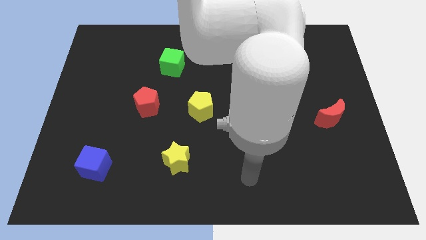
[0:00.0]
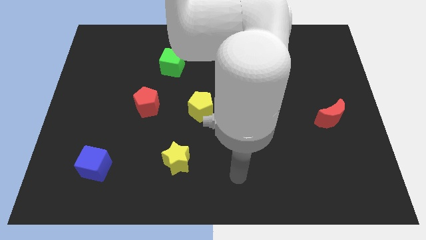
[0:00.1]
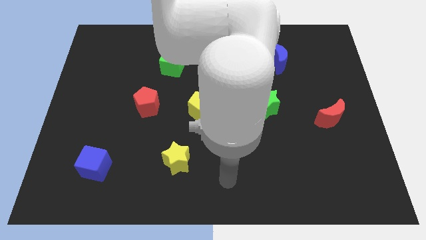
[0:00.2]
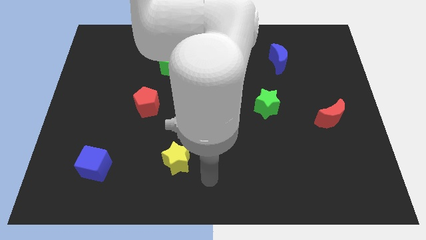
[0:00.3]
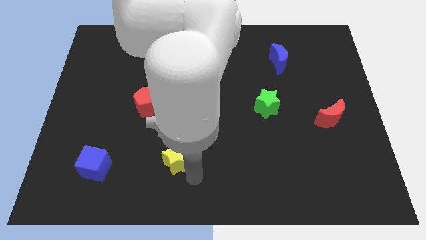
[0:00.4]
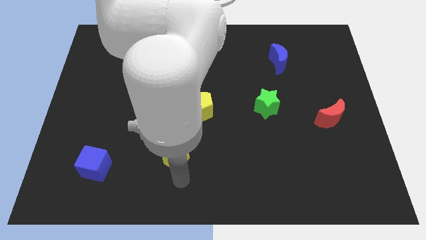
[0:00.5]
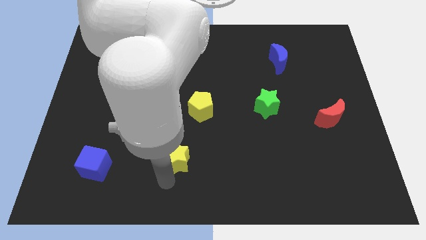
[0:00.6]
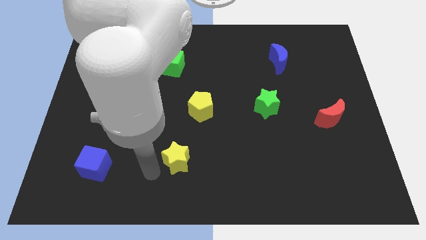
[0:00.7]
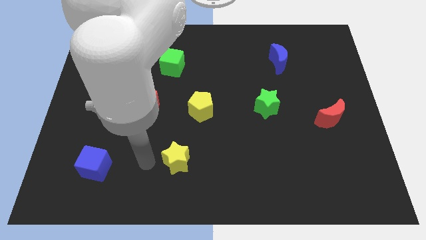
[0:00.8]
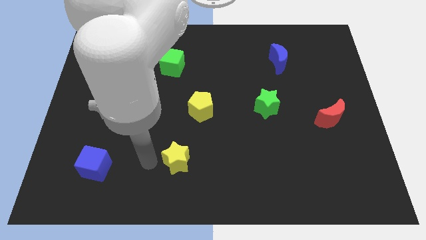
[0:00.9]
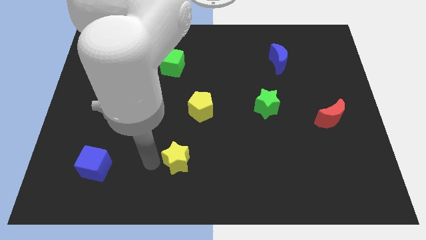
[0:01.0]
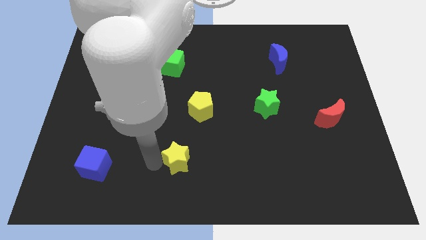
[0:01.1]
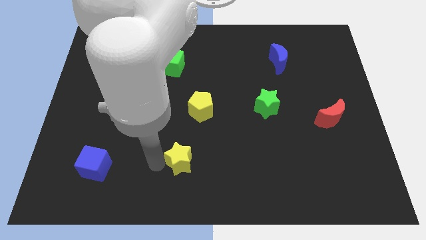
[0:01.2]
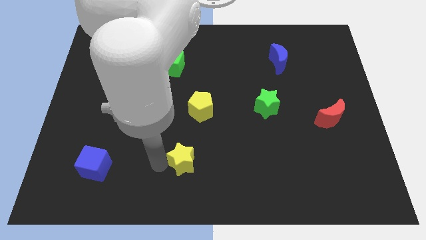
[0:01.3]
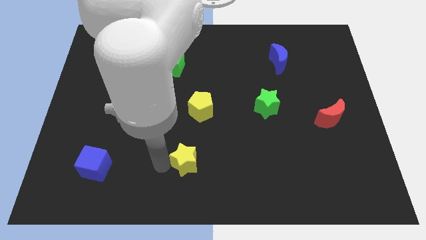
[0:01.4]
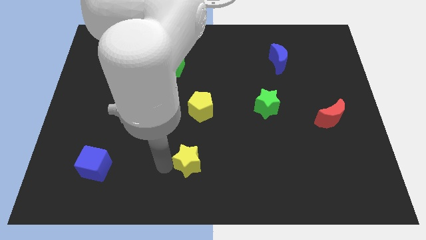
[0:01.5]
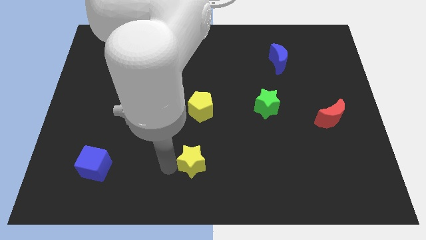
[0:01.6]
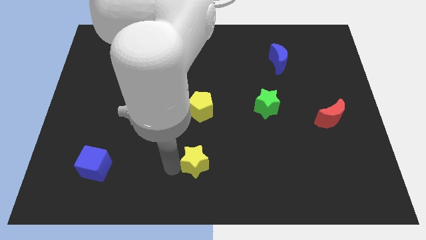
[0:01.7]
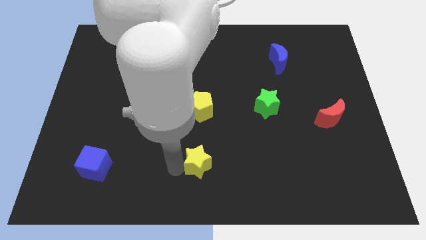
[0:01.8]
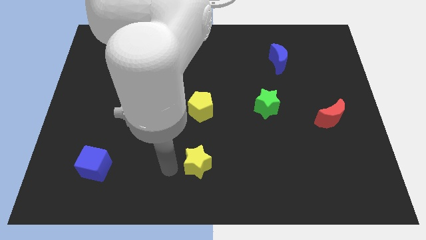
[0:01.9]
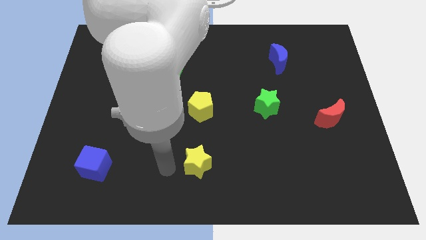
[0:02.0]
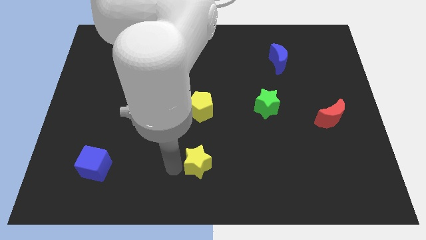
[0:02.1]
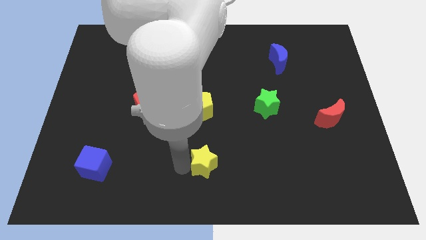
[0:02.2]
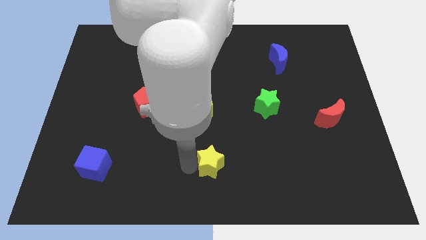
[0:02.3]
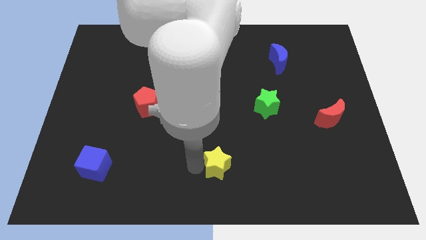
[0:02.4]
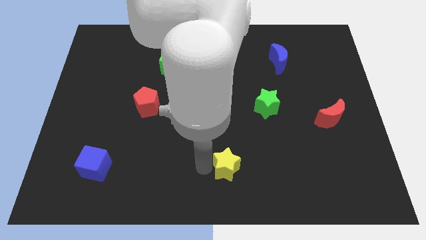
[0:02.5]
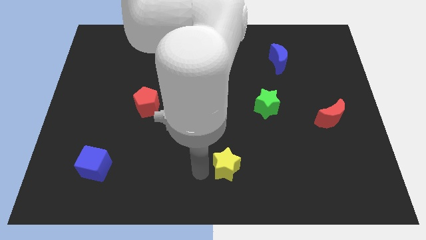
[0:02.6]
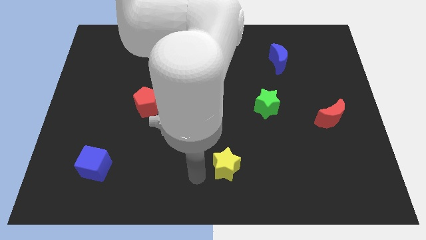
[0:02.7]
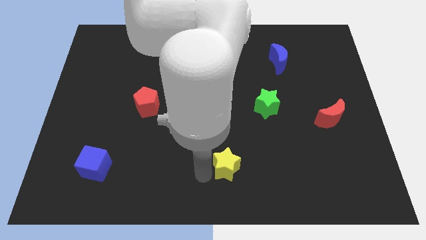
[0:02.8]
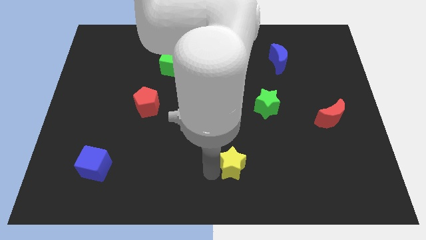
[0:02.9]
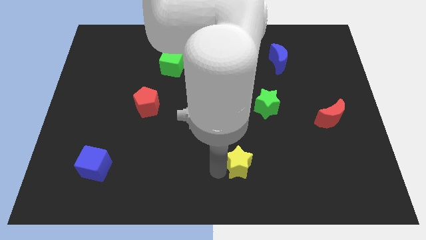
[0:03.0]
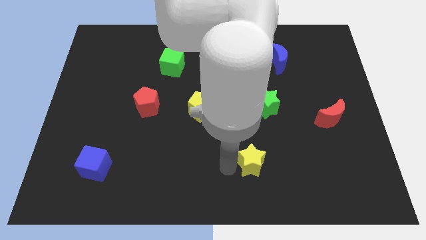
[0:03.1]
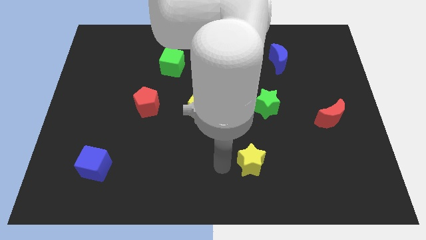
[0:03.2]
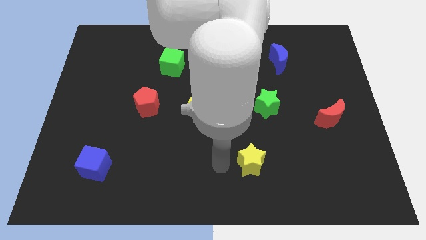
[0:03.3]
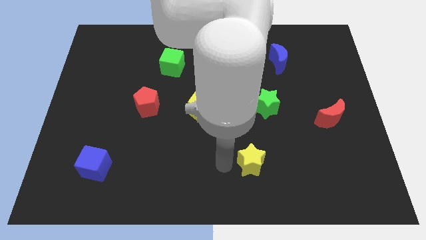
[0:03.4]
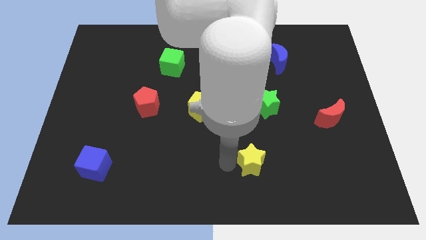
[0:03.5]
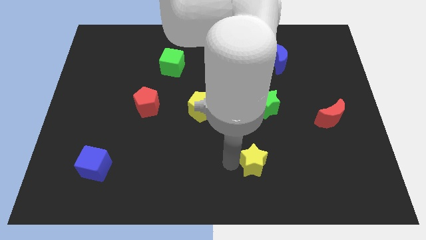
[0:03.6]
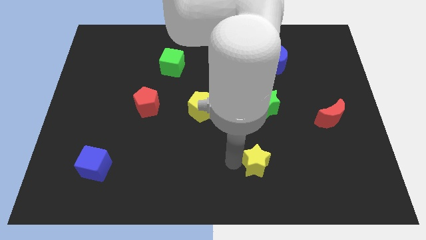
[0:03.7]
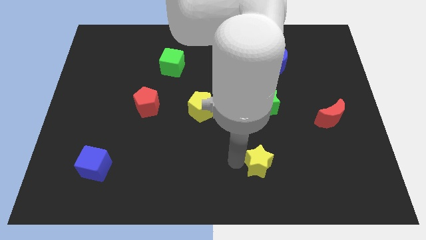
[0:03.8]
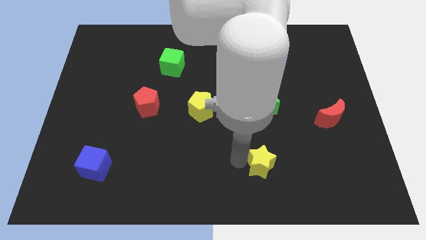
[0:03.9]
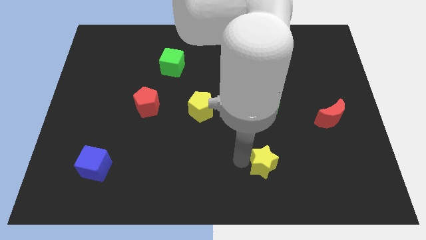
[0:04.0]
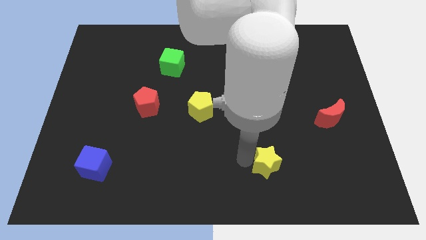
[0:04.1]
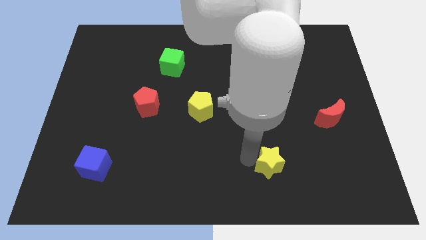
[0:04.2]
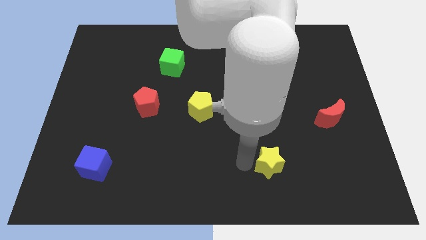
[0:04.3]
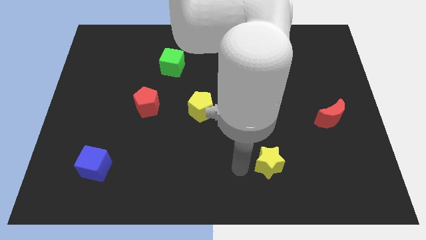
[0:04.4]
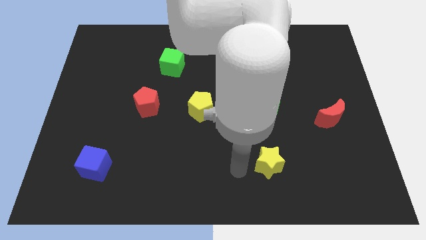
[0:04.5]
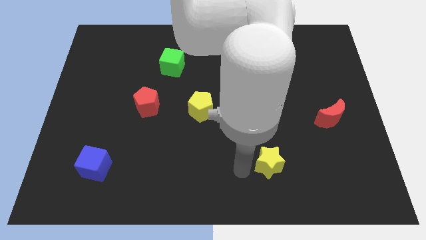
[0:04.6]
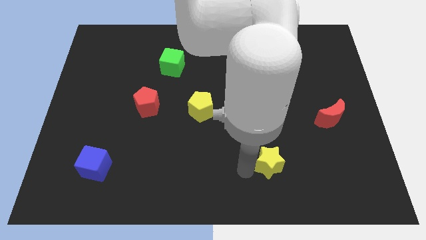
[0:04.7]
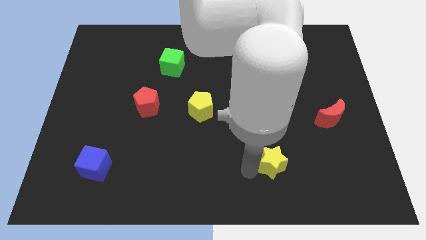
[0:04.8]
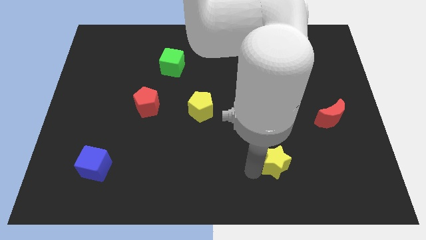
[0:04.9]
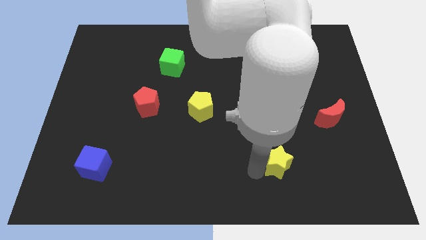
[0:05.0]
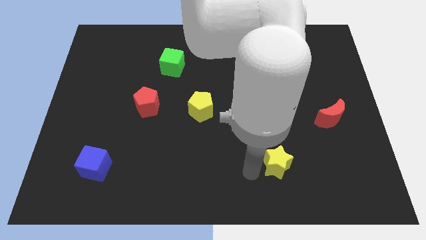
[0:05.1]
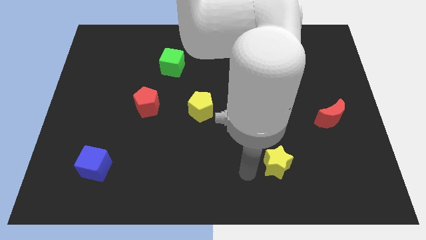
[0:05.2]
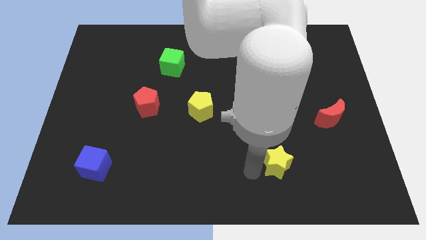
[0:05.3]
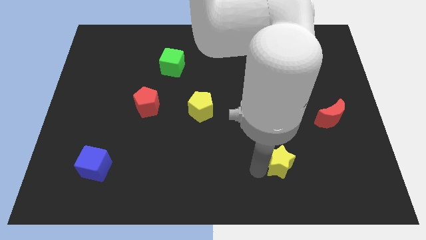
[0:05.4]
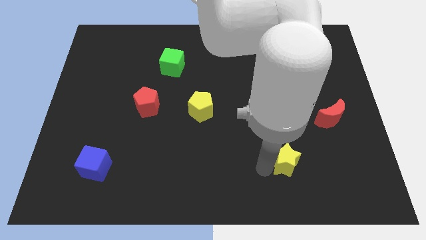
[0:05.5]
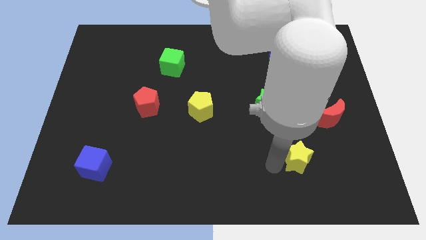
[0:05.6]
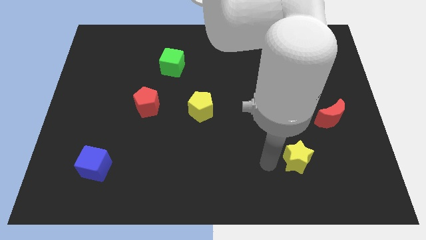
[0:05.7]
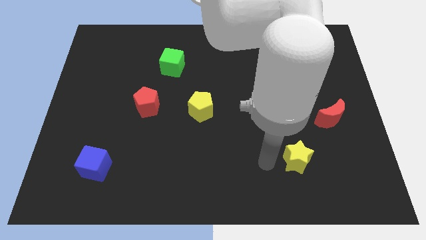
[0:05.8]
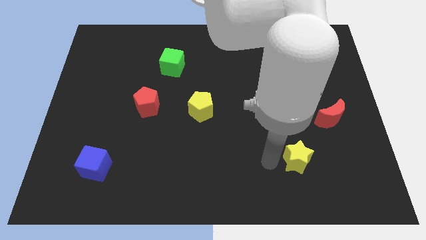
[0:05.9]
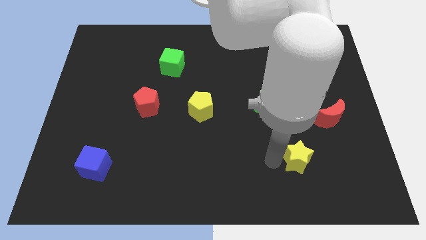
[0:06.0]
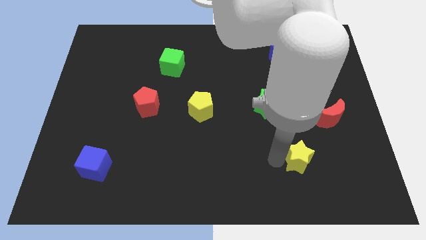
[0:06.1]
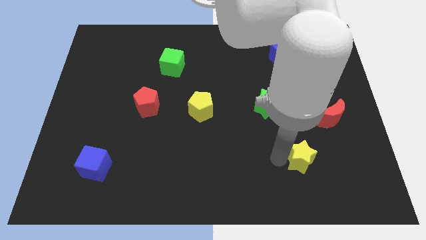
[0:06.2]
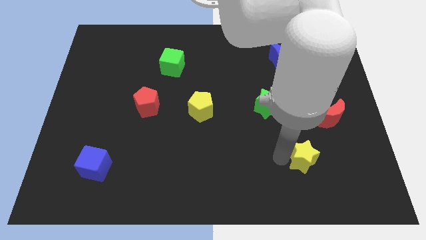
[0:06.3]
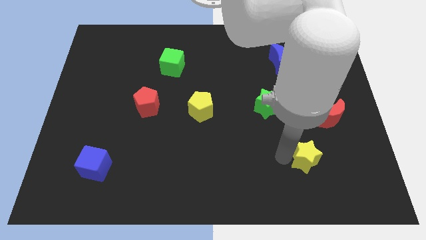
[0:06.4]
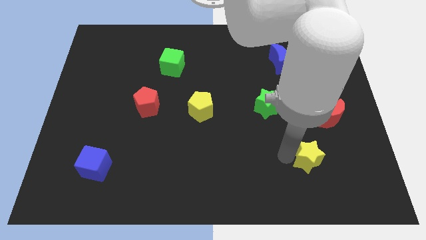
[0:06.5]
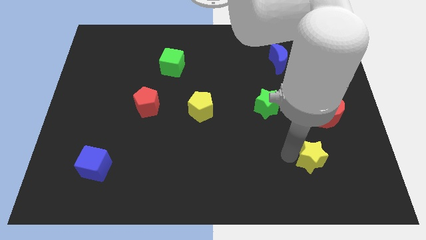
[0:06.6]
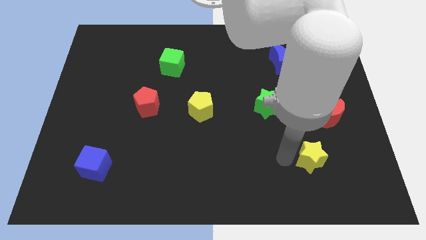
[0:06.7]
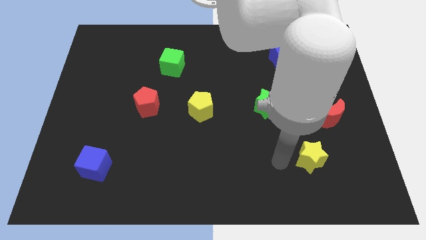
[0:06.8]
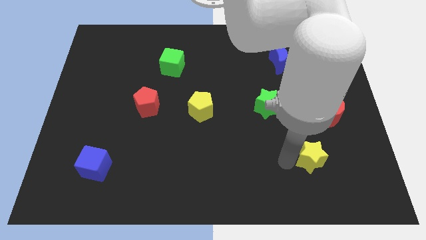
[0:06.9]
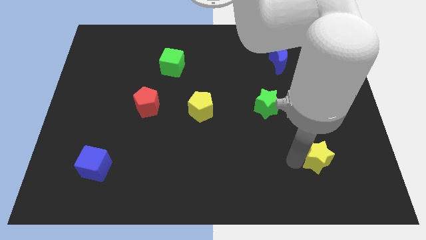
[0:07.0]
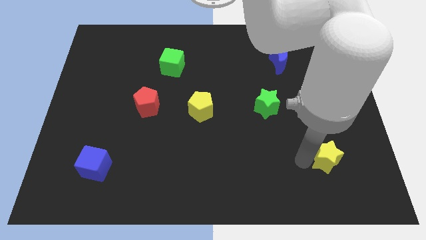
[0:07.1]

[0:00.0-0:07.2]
push the yellow star to the bottom of the red moon
